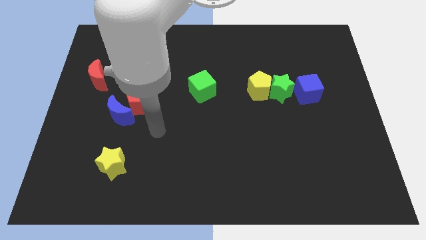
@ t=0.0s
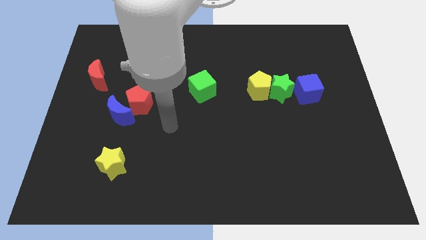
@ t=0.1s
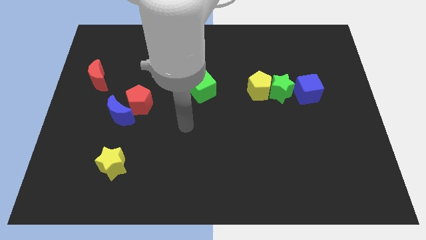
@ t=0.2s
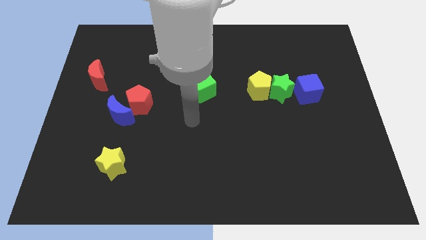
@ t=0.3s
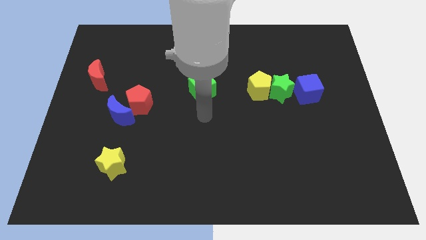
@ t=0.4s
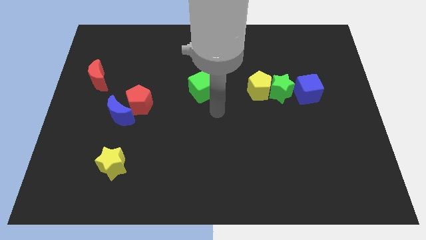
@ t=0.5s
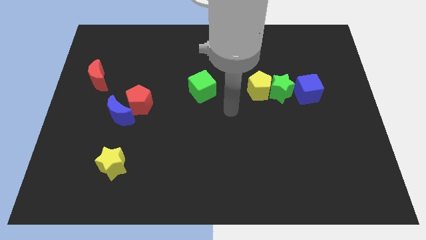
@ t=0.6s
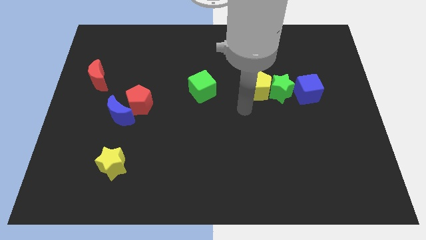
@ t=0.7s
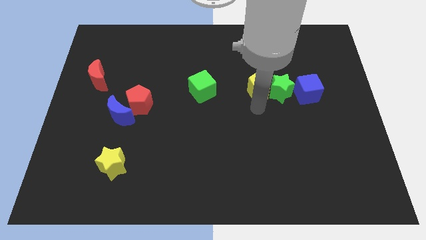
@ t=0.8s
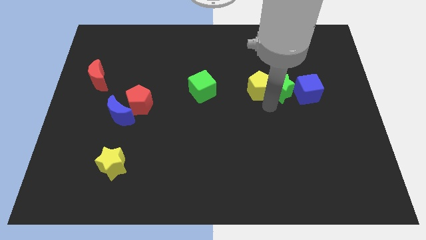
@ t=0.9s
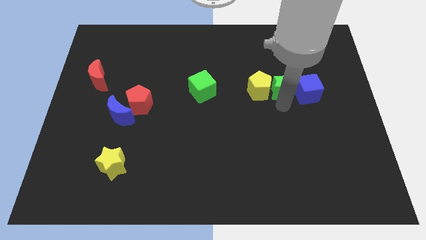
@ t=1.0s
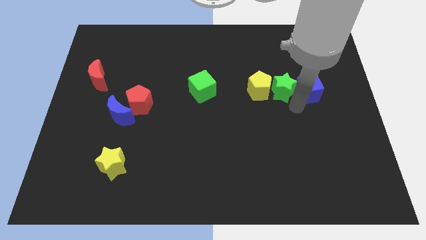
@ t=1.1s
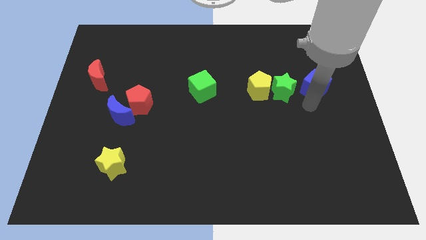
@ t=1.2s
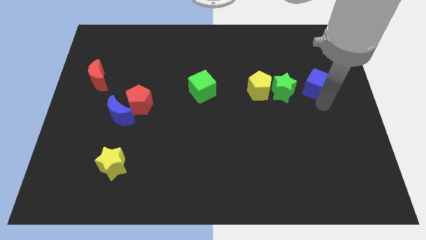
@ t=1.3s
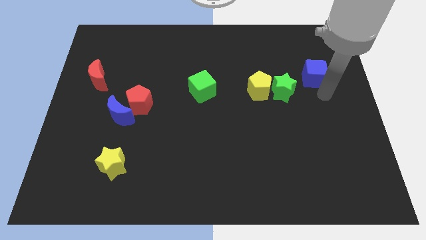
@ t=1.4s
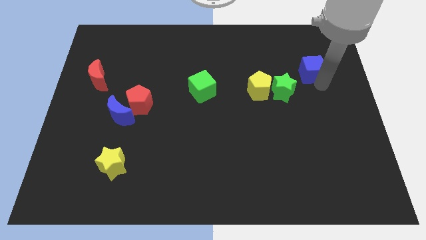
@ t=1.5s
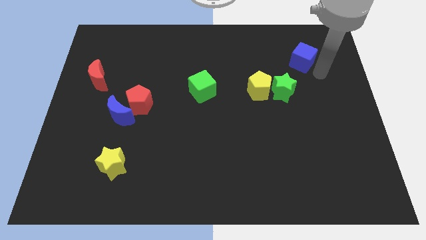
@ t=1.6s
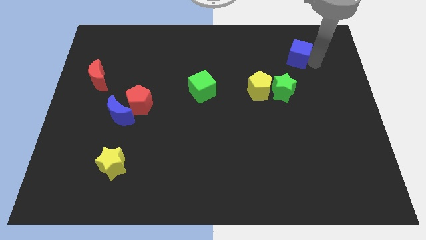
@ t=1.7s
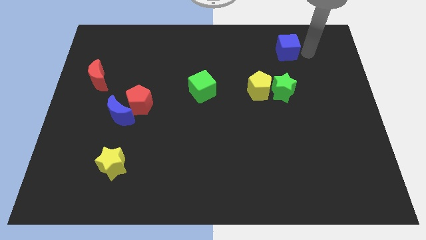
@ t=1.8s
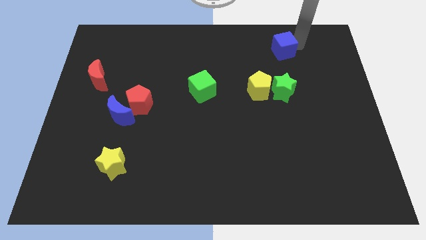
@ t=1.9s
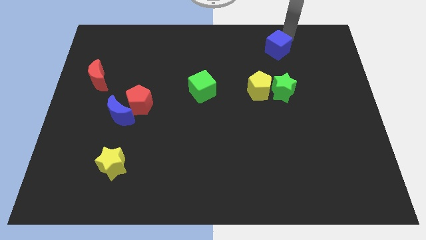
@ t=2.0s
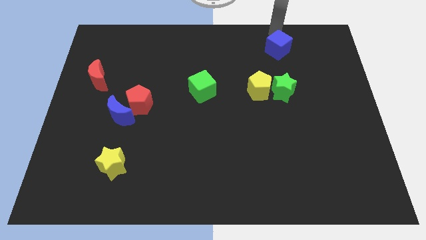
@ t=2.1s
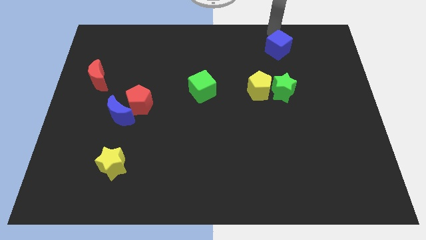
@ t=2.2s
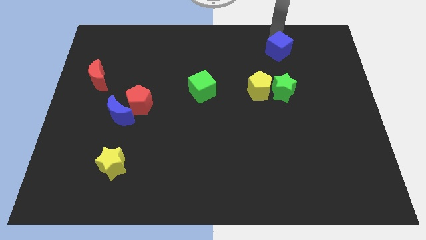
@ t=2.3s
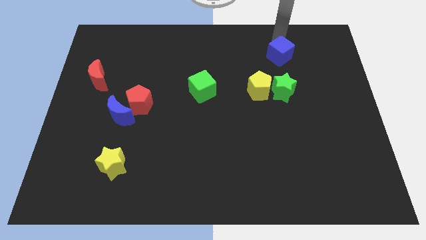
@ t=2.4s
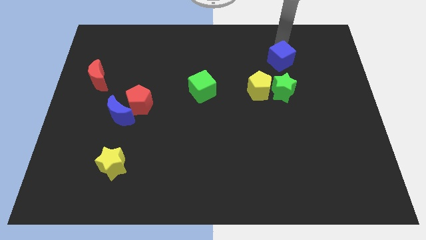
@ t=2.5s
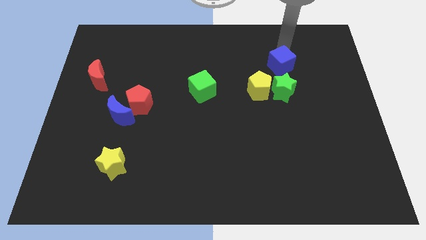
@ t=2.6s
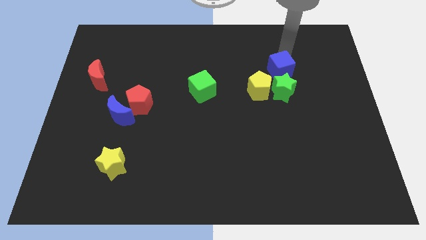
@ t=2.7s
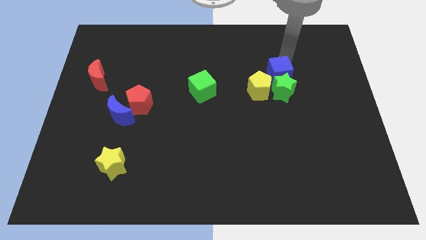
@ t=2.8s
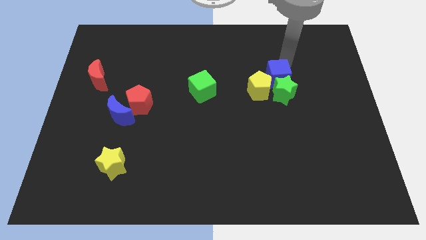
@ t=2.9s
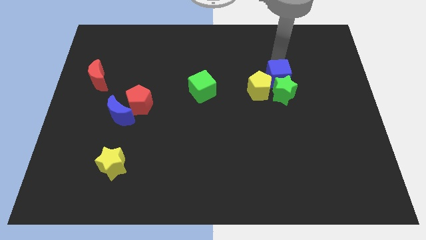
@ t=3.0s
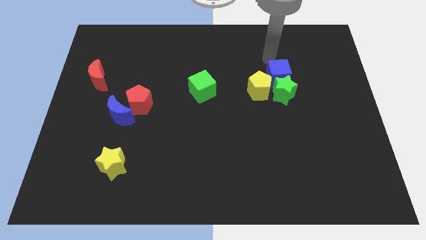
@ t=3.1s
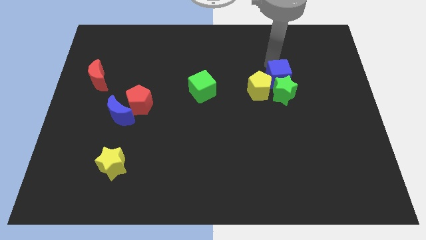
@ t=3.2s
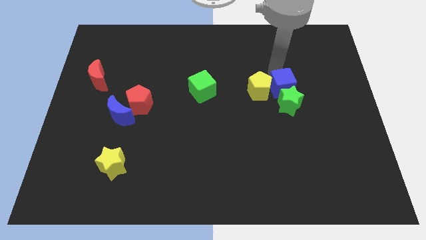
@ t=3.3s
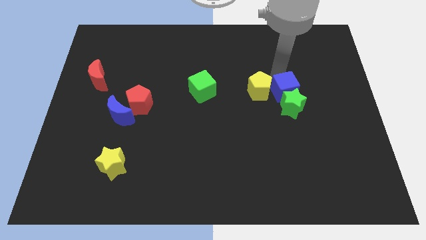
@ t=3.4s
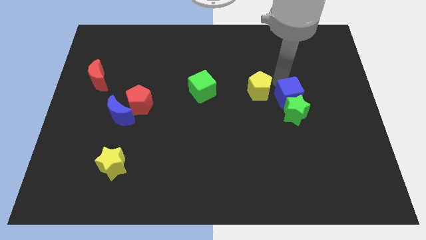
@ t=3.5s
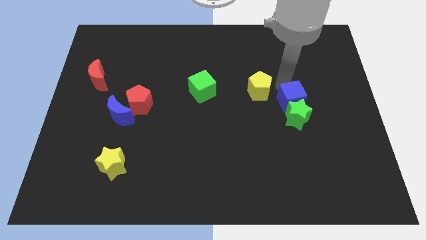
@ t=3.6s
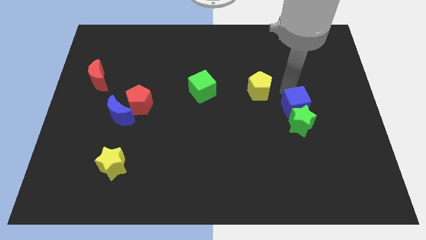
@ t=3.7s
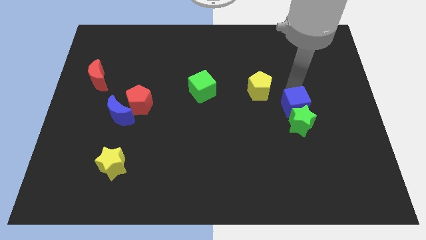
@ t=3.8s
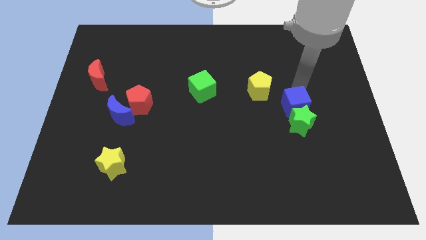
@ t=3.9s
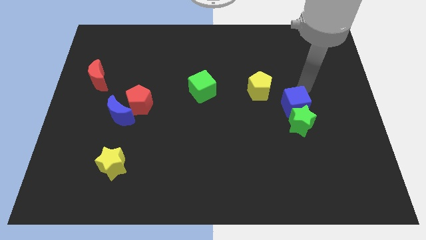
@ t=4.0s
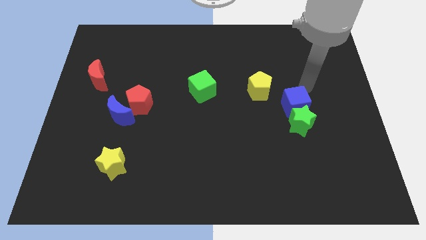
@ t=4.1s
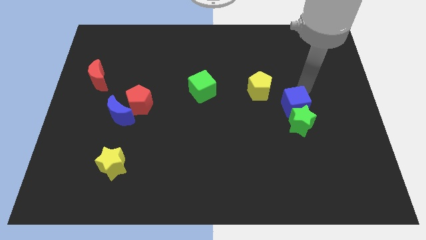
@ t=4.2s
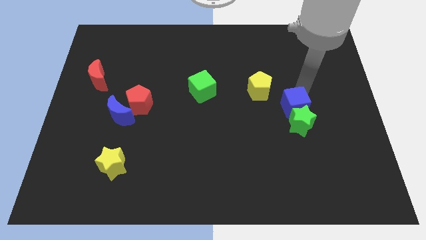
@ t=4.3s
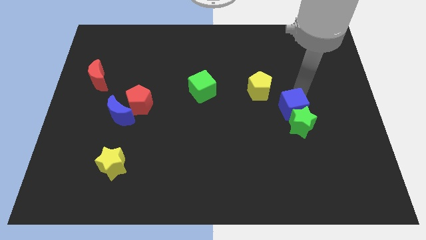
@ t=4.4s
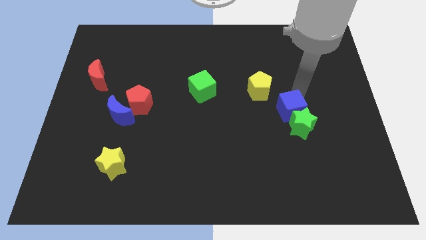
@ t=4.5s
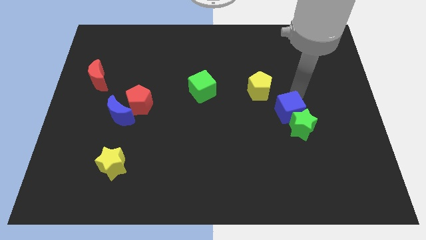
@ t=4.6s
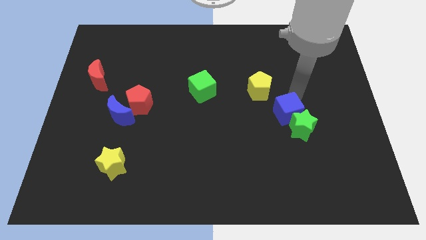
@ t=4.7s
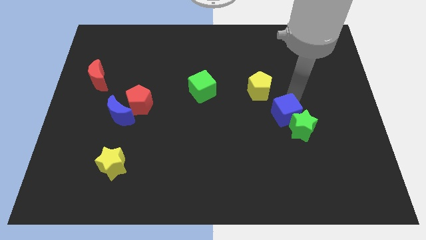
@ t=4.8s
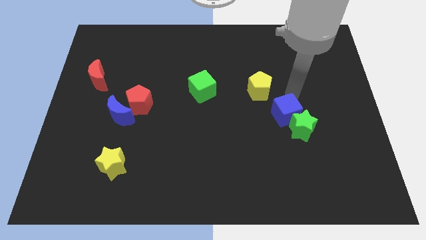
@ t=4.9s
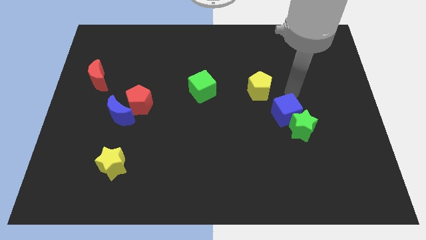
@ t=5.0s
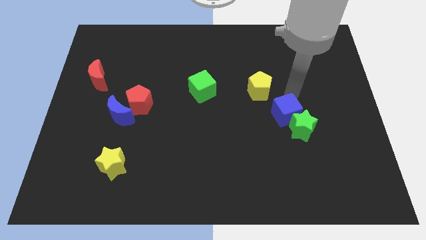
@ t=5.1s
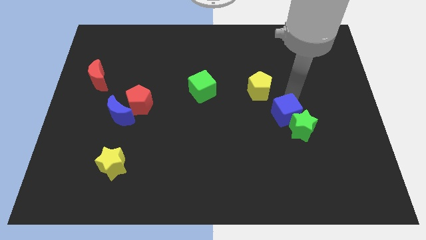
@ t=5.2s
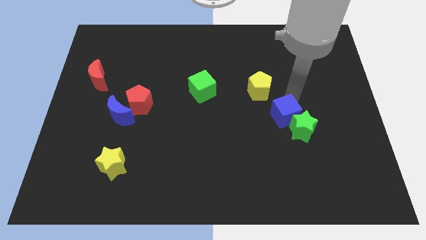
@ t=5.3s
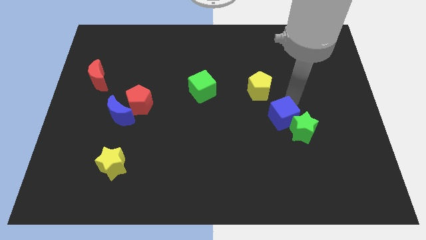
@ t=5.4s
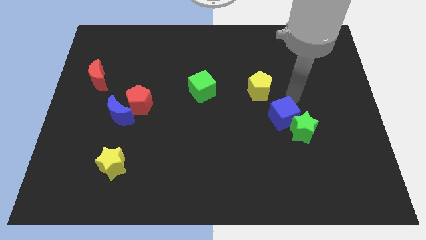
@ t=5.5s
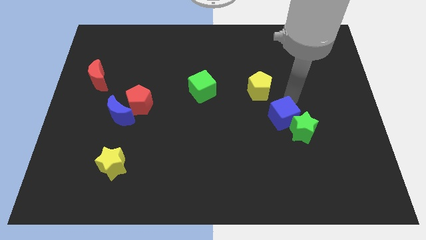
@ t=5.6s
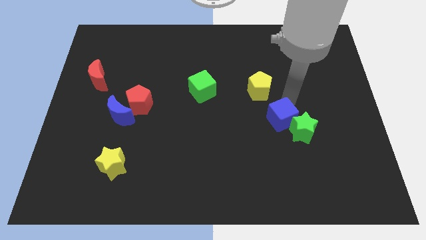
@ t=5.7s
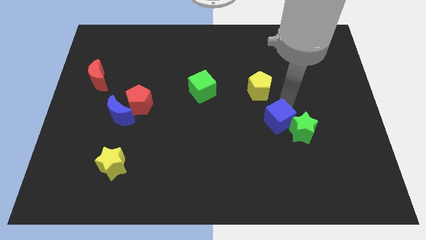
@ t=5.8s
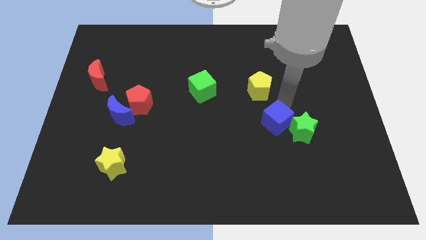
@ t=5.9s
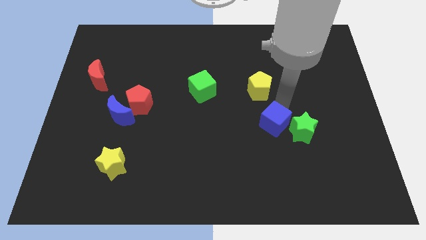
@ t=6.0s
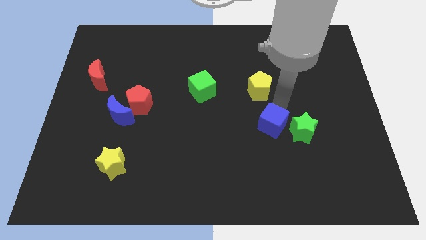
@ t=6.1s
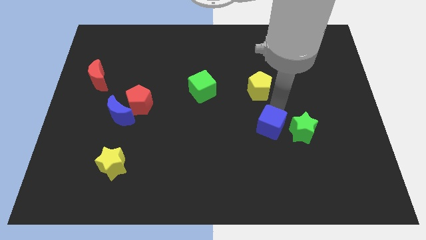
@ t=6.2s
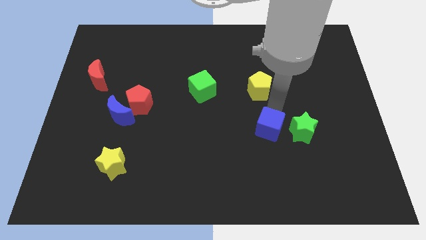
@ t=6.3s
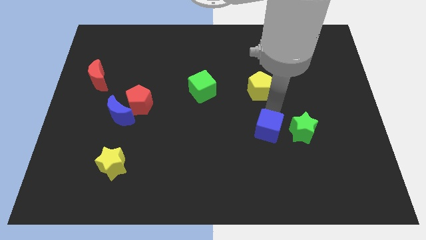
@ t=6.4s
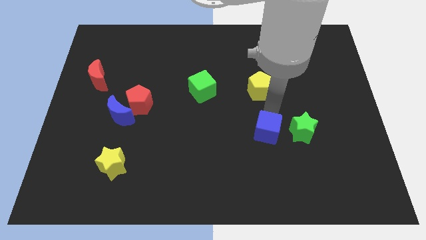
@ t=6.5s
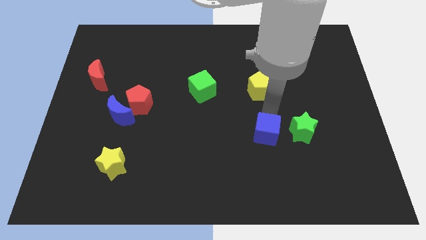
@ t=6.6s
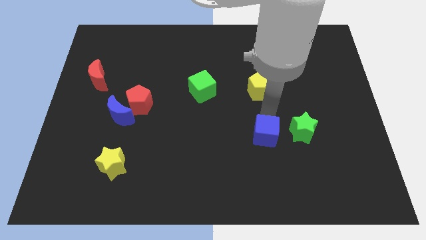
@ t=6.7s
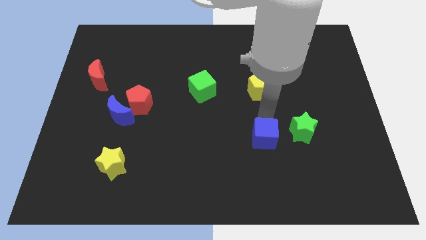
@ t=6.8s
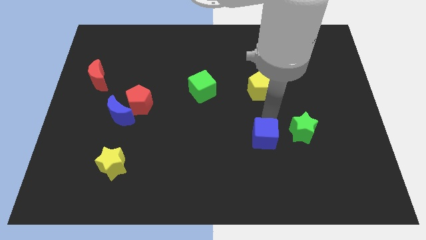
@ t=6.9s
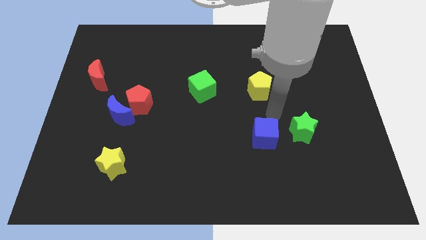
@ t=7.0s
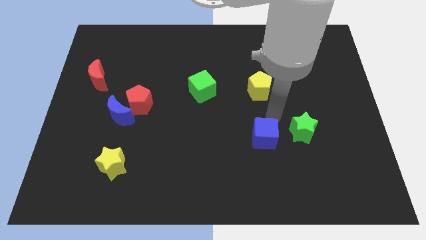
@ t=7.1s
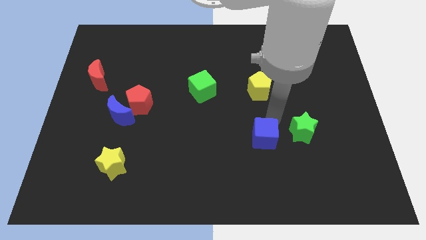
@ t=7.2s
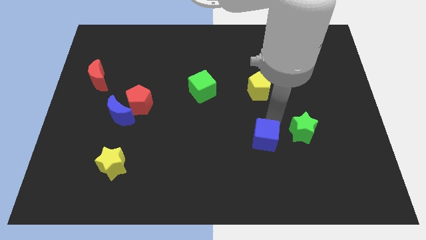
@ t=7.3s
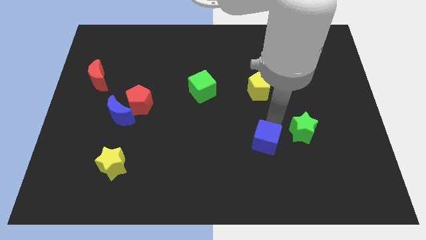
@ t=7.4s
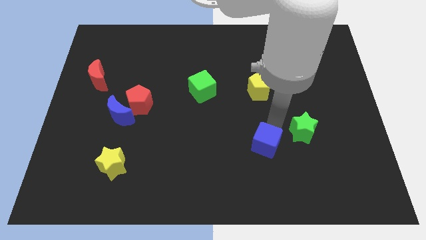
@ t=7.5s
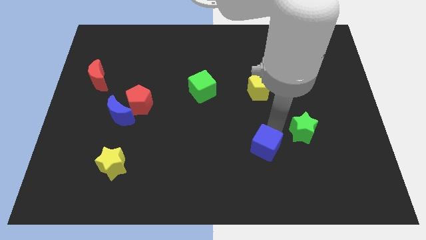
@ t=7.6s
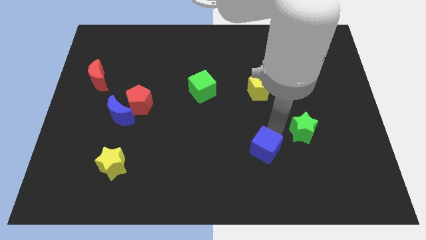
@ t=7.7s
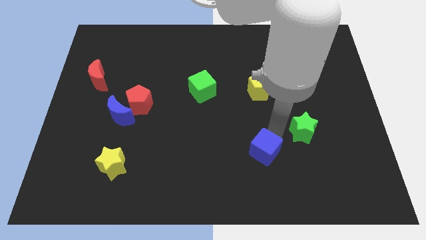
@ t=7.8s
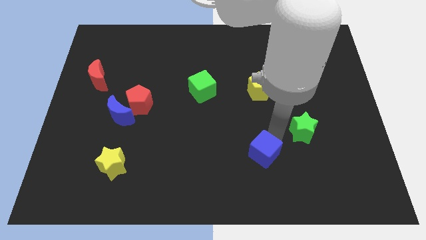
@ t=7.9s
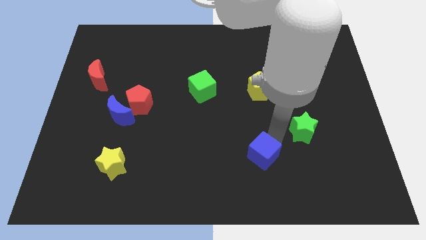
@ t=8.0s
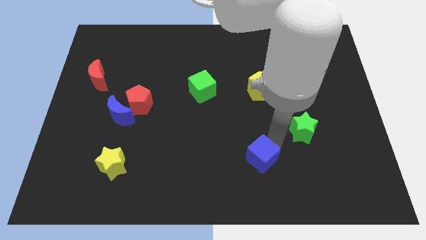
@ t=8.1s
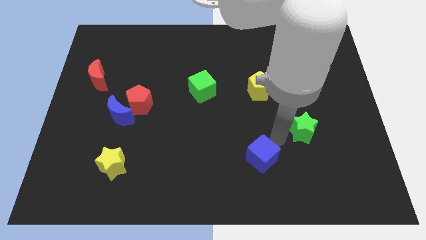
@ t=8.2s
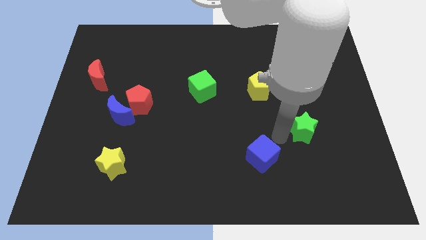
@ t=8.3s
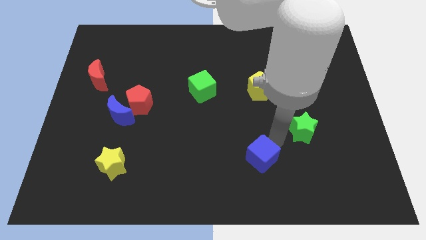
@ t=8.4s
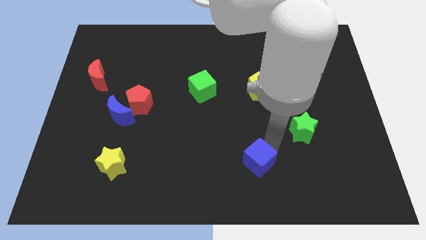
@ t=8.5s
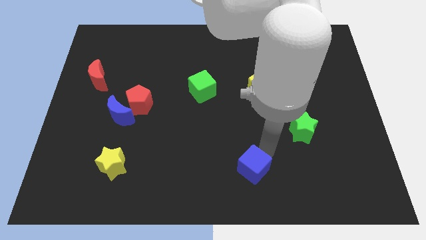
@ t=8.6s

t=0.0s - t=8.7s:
move the blue cube to the bottom side
